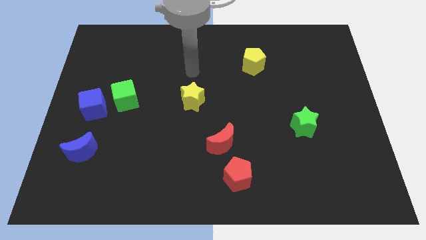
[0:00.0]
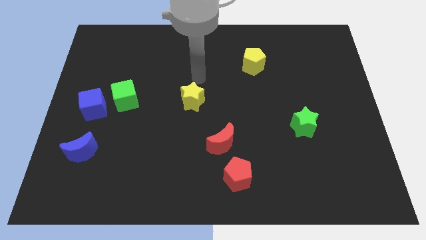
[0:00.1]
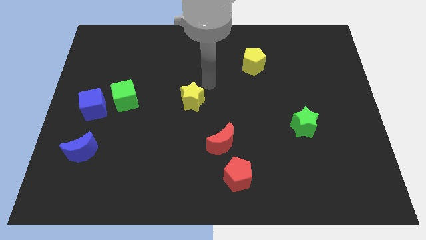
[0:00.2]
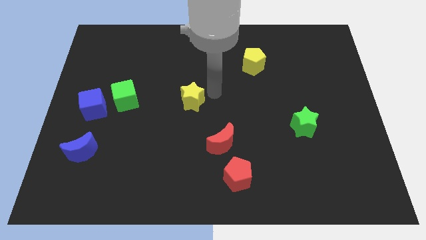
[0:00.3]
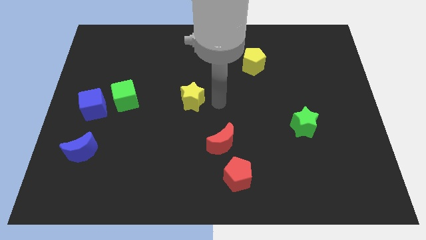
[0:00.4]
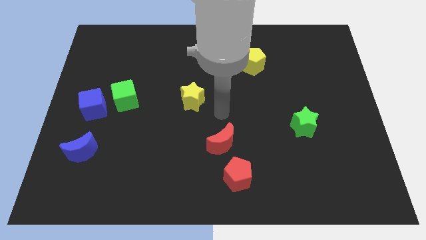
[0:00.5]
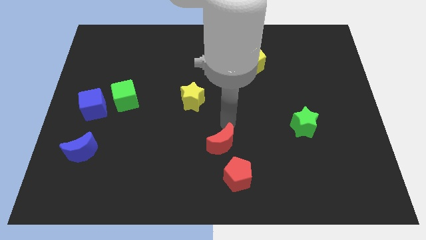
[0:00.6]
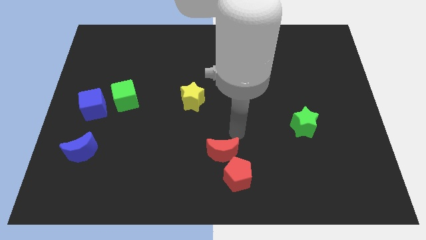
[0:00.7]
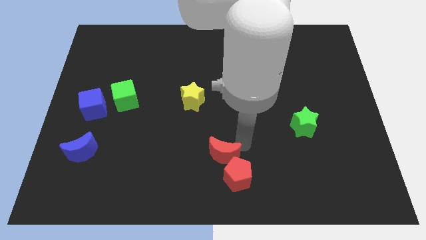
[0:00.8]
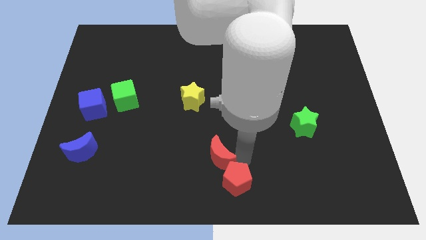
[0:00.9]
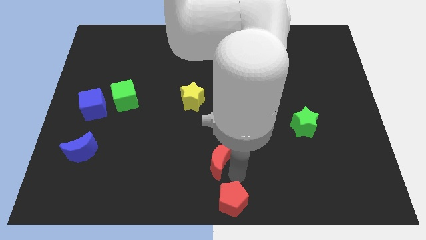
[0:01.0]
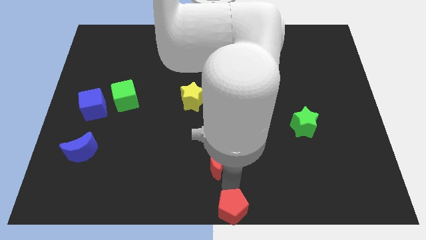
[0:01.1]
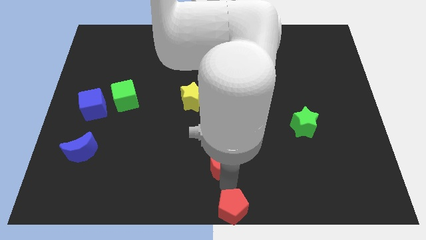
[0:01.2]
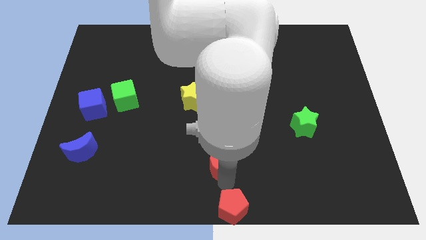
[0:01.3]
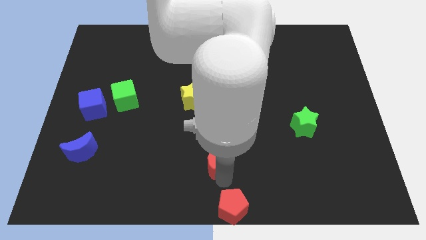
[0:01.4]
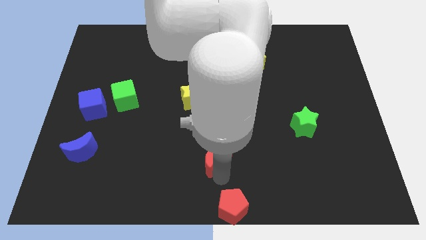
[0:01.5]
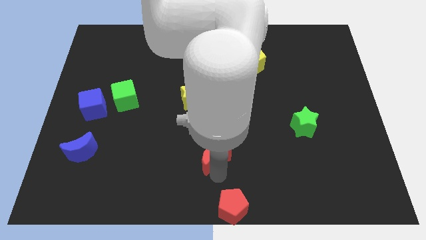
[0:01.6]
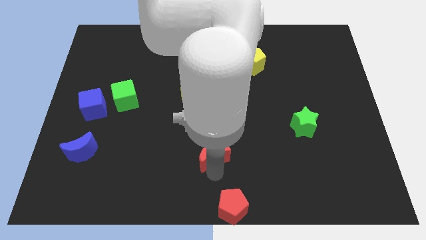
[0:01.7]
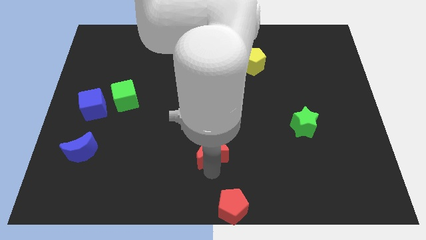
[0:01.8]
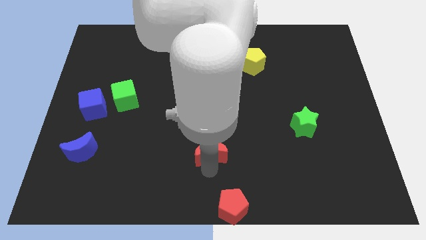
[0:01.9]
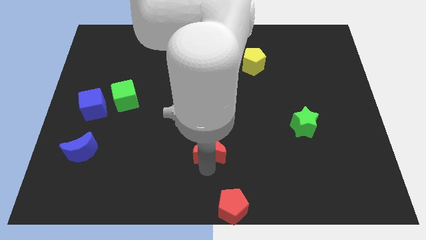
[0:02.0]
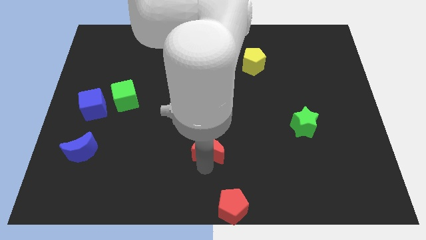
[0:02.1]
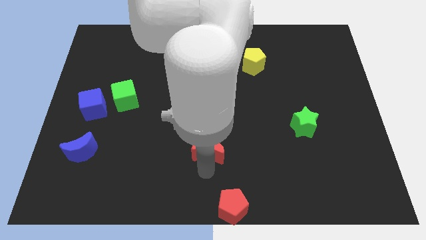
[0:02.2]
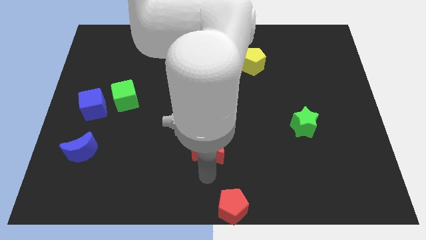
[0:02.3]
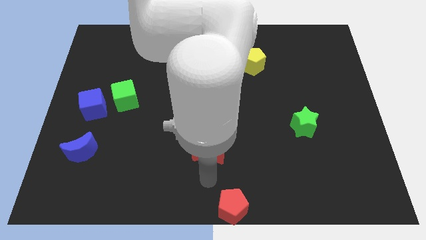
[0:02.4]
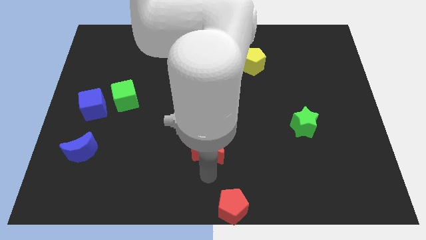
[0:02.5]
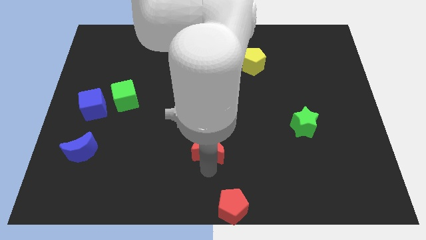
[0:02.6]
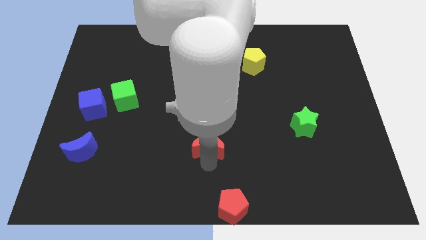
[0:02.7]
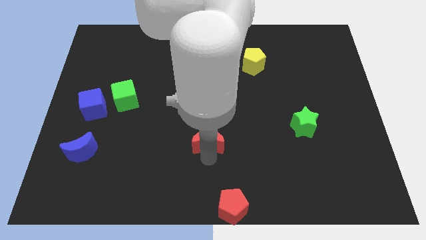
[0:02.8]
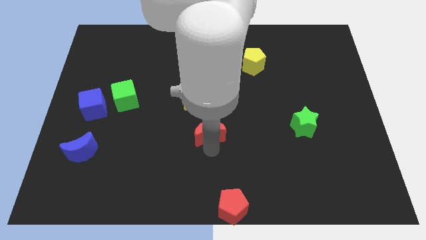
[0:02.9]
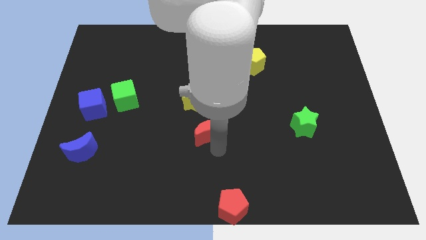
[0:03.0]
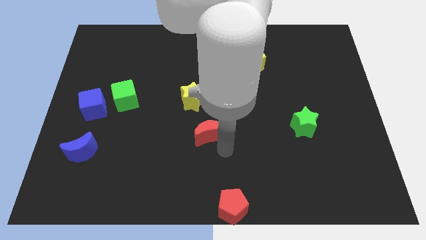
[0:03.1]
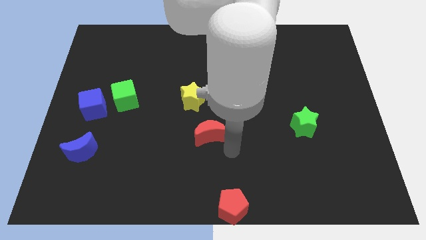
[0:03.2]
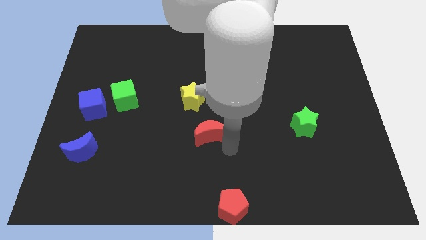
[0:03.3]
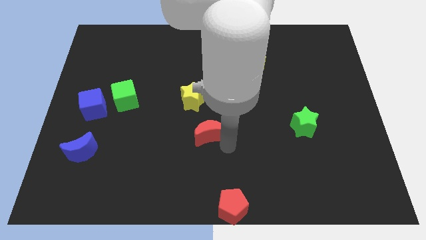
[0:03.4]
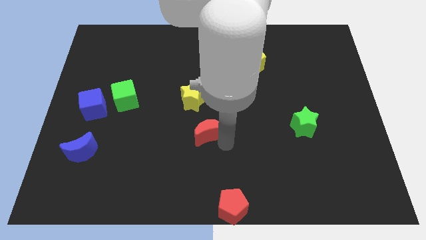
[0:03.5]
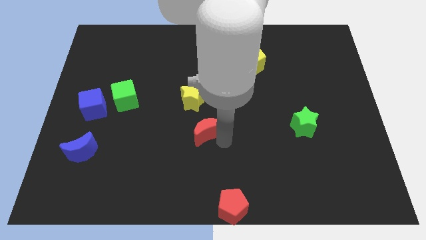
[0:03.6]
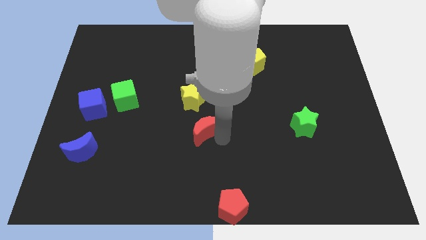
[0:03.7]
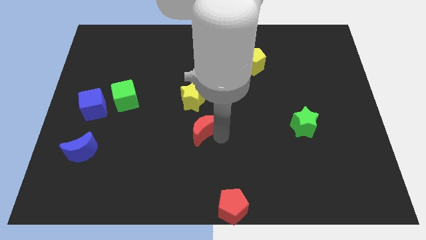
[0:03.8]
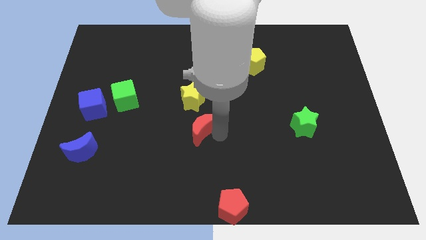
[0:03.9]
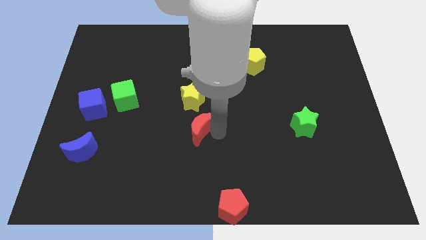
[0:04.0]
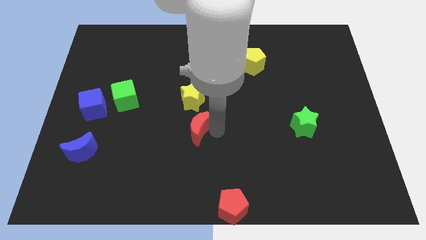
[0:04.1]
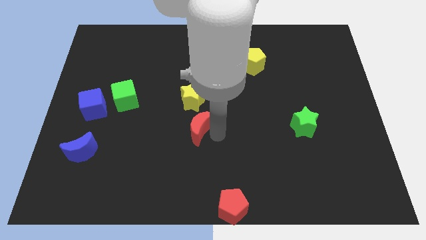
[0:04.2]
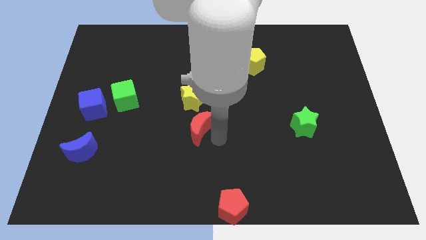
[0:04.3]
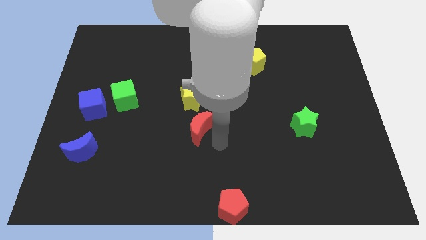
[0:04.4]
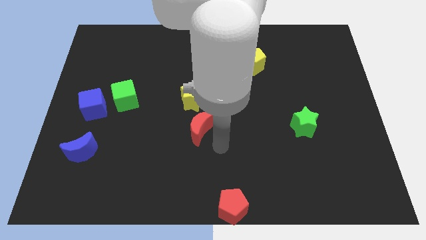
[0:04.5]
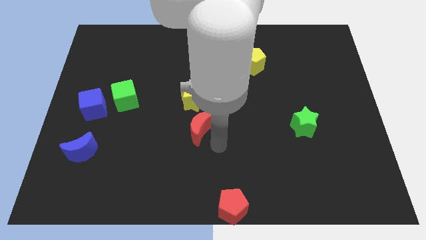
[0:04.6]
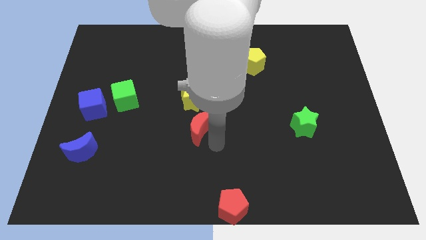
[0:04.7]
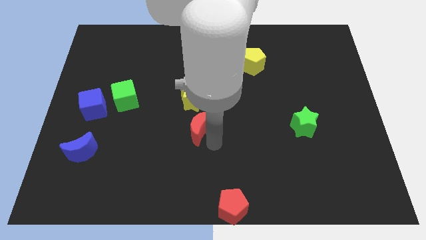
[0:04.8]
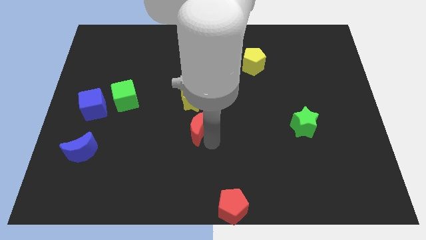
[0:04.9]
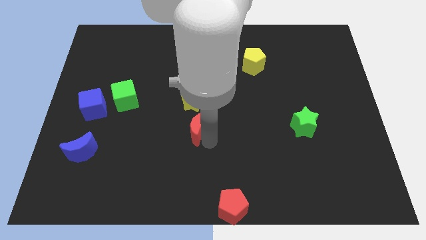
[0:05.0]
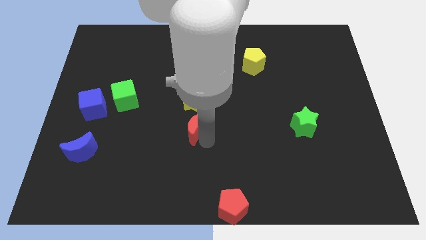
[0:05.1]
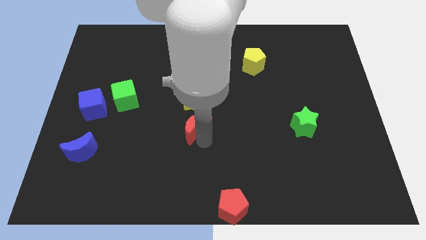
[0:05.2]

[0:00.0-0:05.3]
slightly move the red moon diagonally up and left

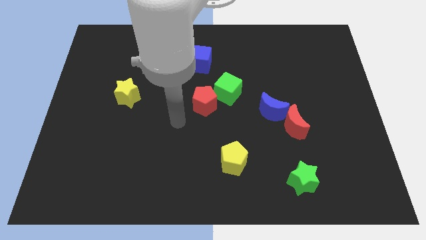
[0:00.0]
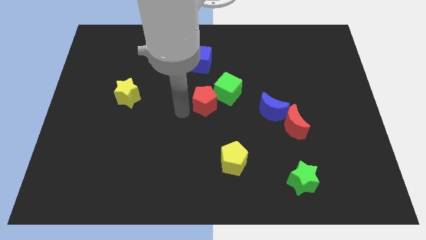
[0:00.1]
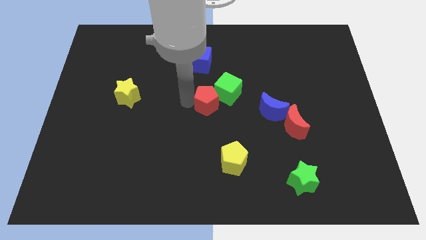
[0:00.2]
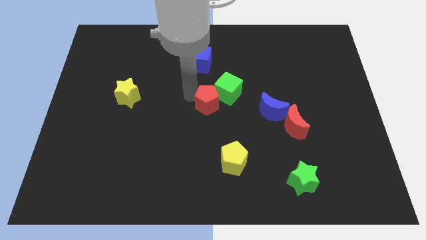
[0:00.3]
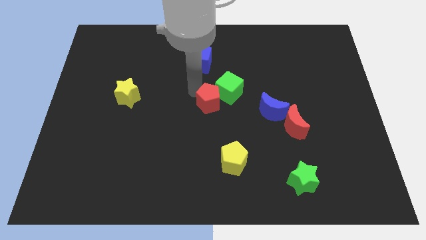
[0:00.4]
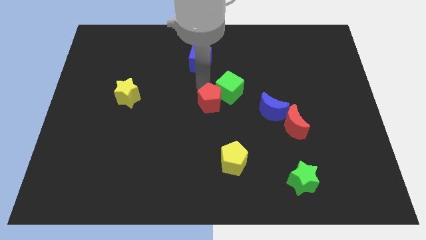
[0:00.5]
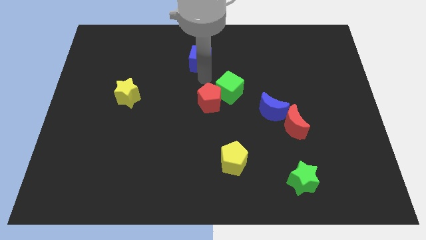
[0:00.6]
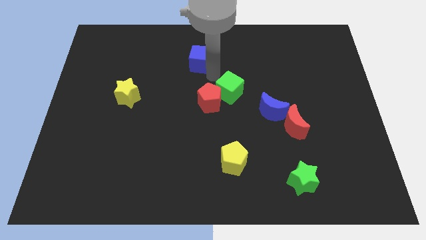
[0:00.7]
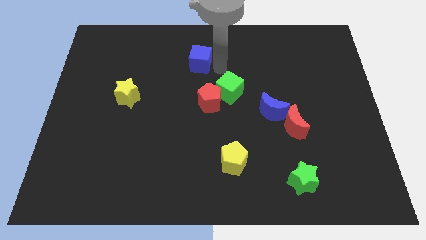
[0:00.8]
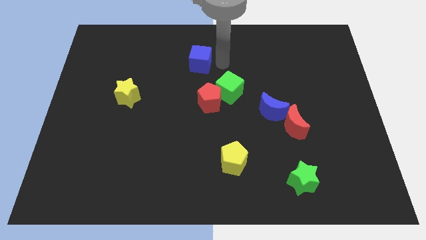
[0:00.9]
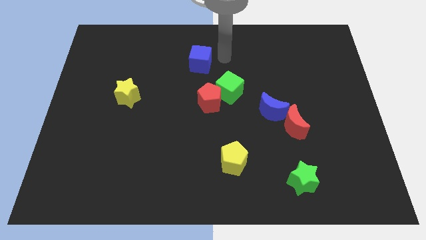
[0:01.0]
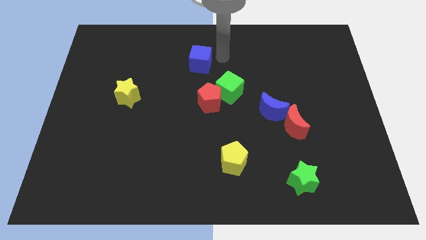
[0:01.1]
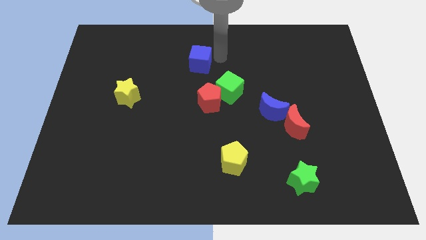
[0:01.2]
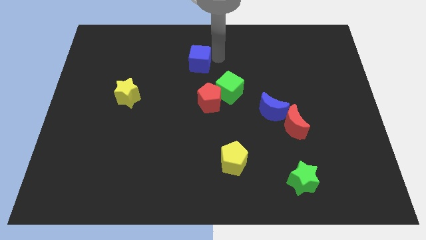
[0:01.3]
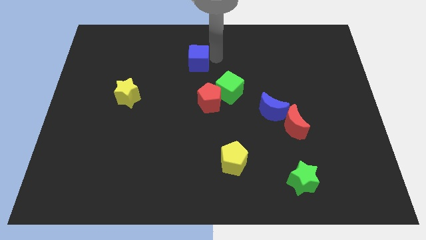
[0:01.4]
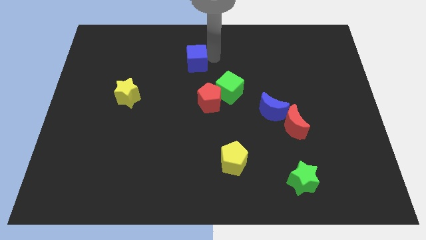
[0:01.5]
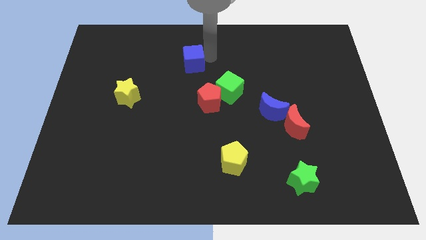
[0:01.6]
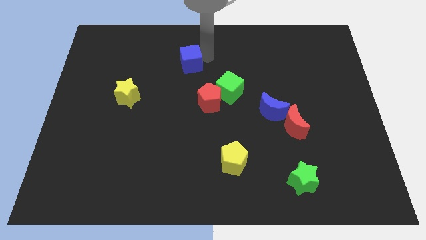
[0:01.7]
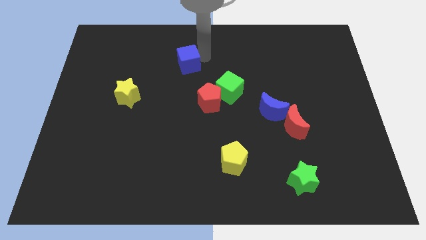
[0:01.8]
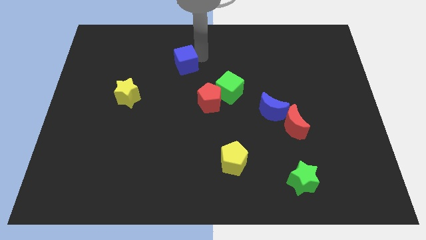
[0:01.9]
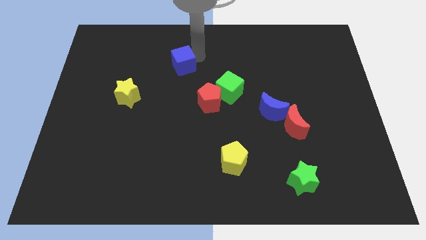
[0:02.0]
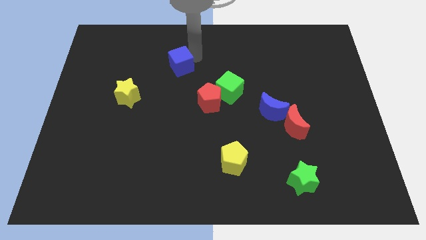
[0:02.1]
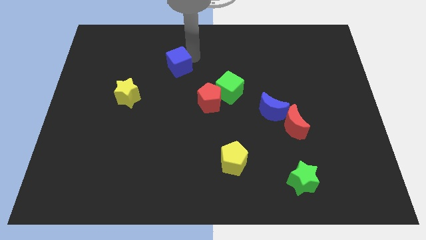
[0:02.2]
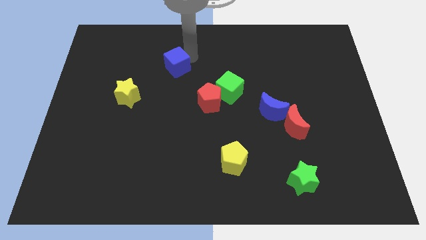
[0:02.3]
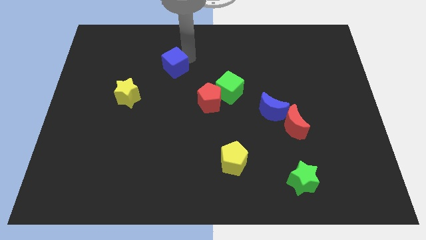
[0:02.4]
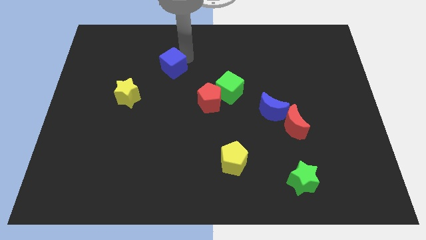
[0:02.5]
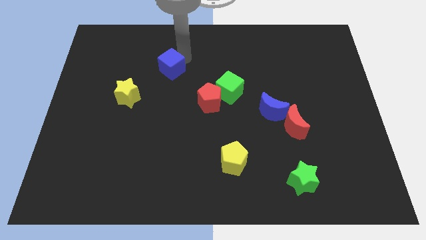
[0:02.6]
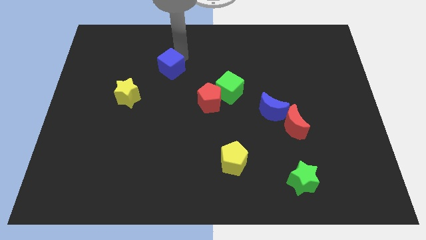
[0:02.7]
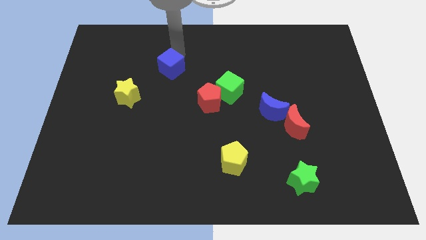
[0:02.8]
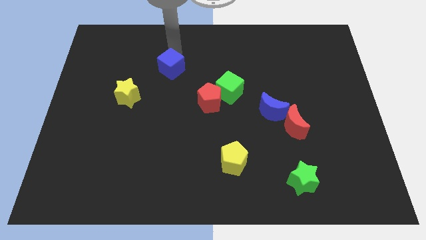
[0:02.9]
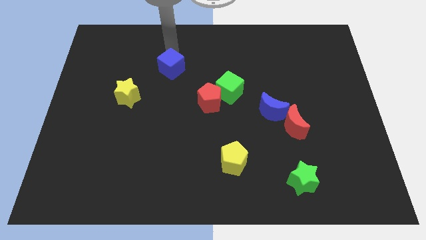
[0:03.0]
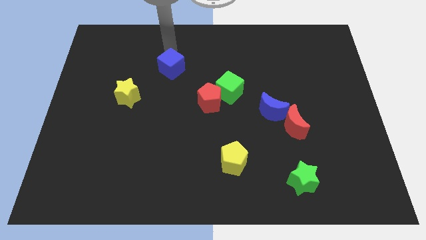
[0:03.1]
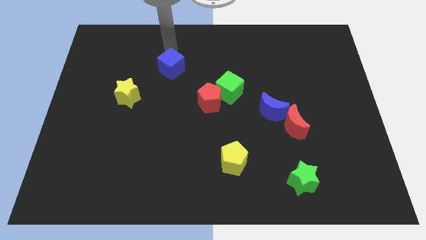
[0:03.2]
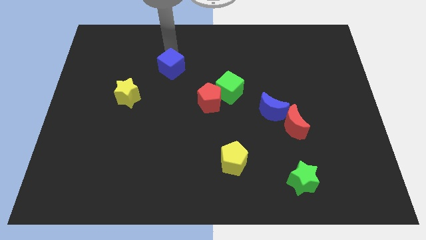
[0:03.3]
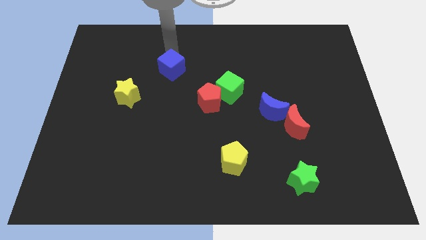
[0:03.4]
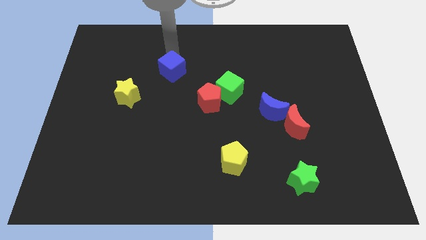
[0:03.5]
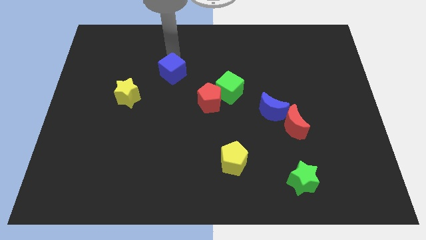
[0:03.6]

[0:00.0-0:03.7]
move the blue cube a bit downwards and left
